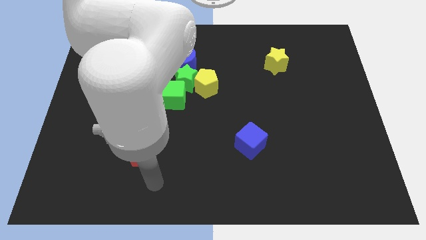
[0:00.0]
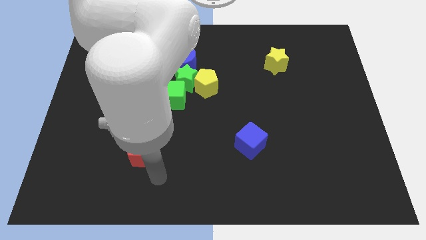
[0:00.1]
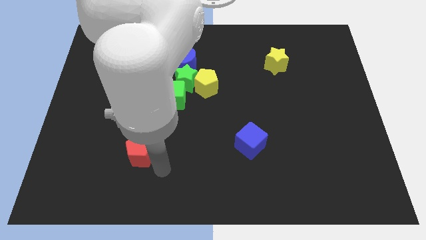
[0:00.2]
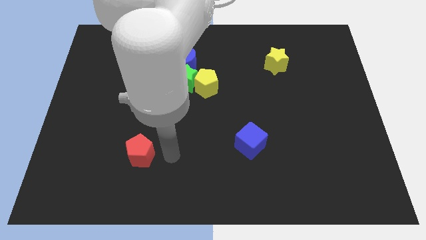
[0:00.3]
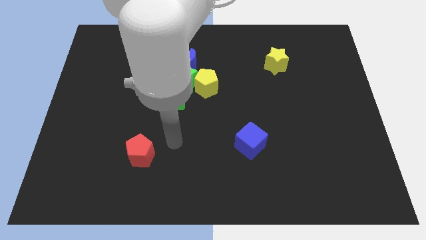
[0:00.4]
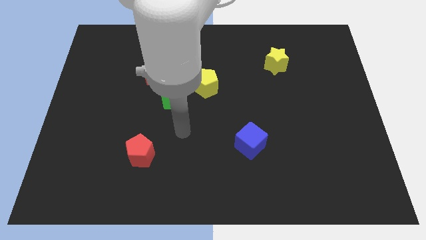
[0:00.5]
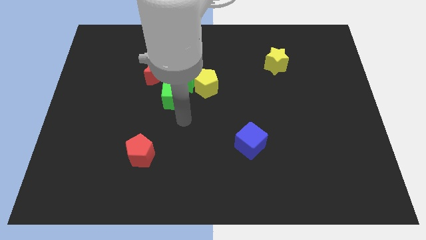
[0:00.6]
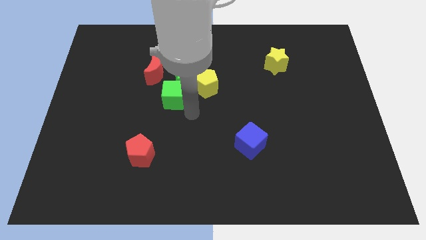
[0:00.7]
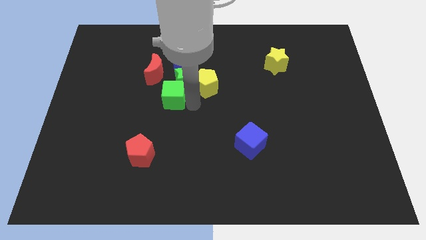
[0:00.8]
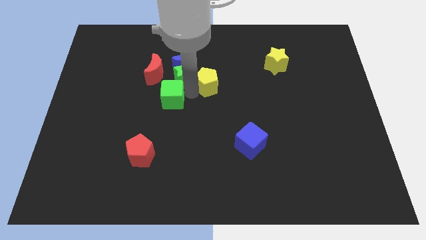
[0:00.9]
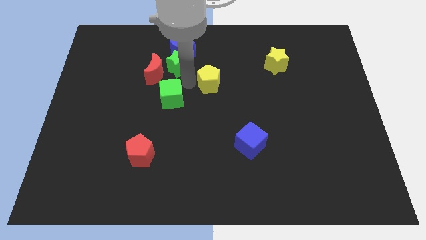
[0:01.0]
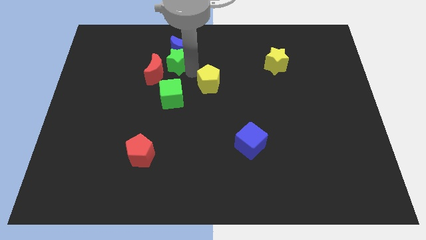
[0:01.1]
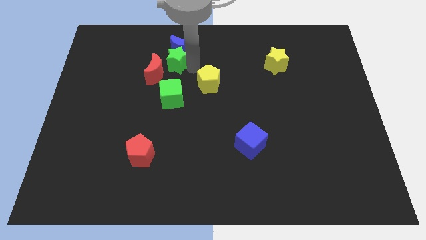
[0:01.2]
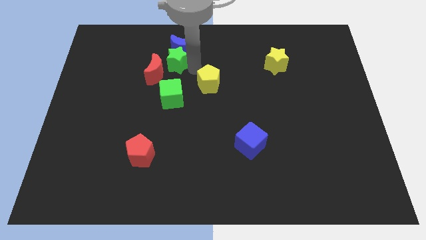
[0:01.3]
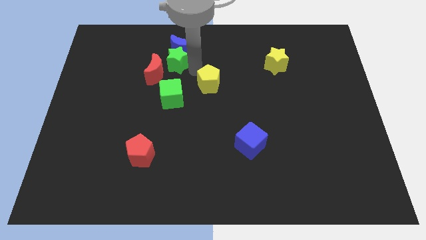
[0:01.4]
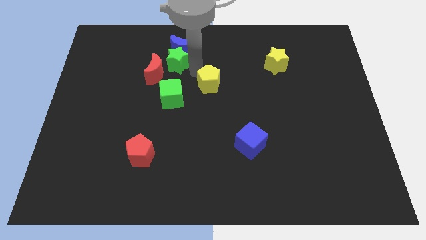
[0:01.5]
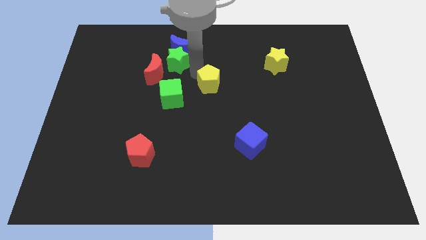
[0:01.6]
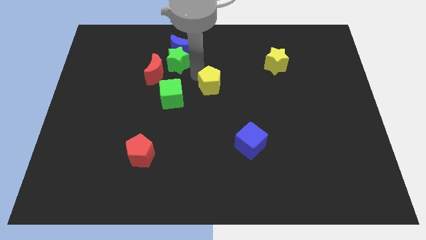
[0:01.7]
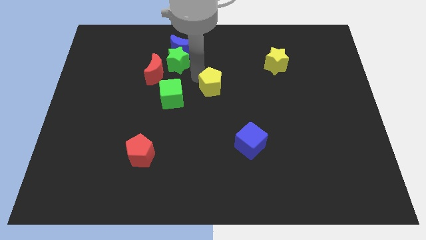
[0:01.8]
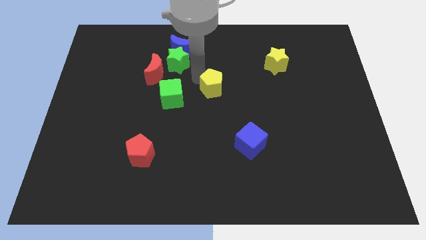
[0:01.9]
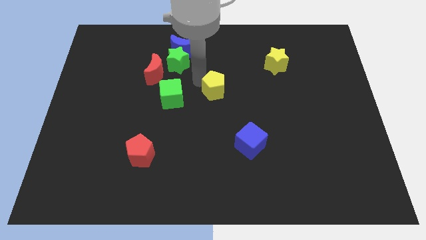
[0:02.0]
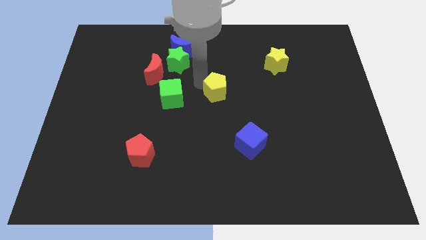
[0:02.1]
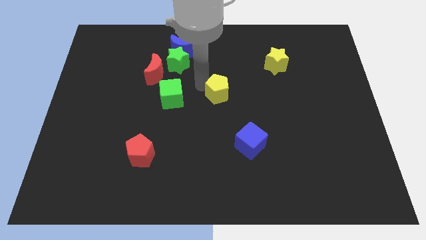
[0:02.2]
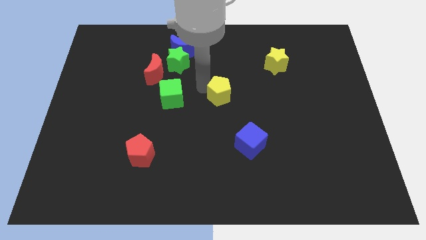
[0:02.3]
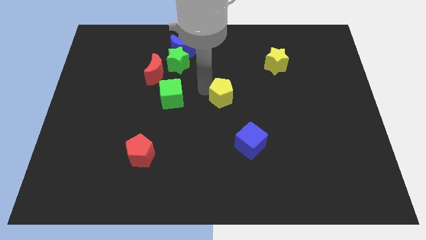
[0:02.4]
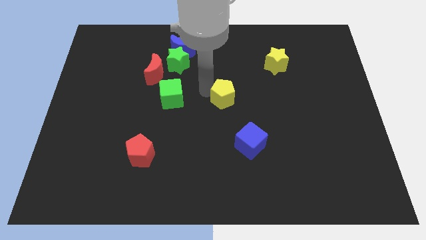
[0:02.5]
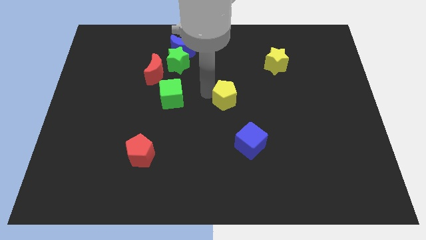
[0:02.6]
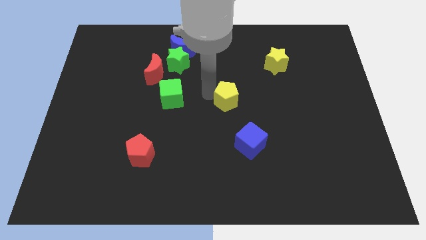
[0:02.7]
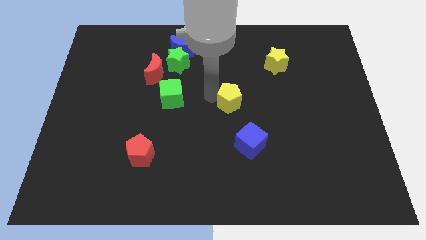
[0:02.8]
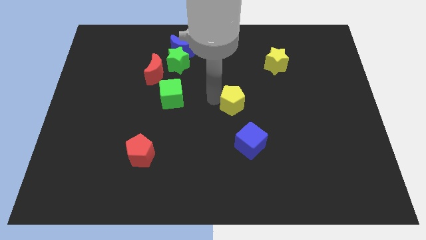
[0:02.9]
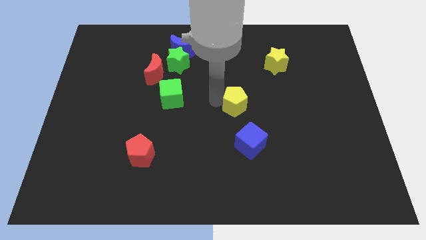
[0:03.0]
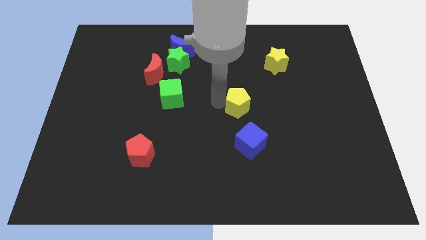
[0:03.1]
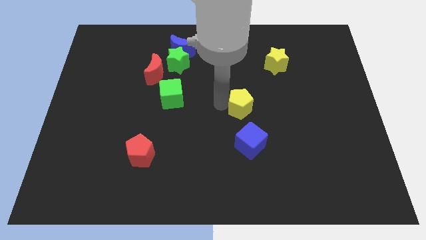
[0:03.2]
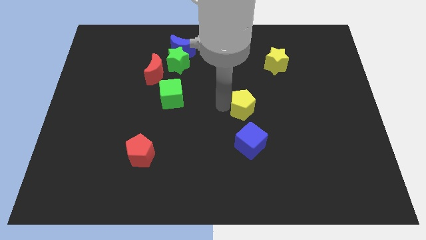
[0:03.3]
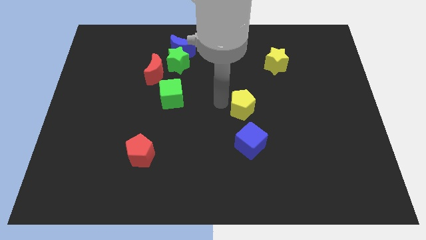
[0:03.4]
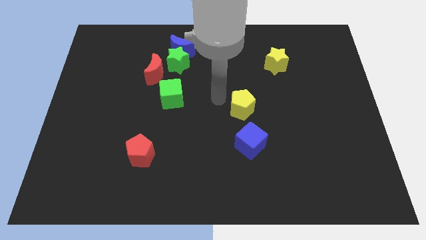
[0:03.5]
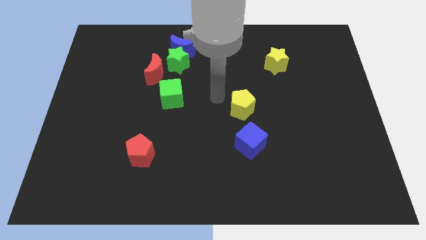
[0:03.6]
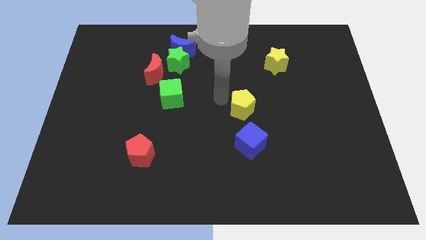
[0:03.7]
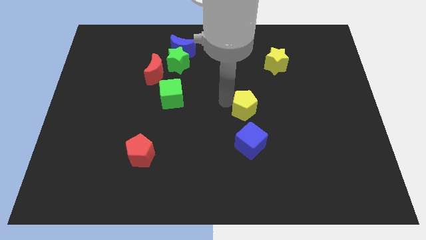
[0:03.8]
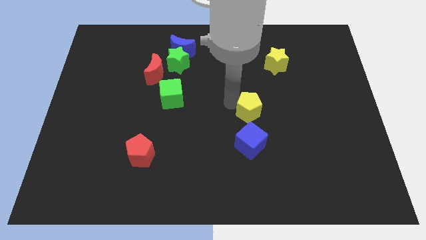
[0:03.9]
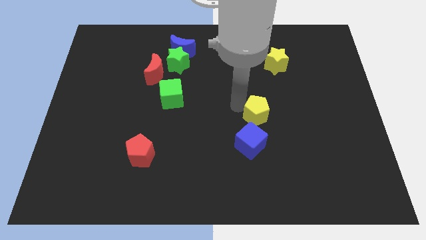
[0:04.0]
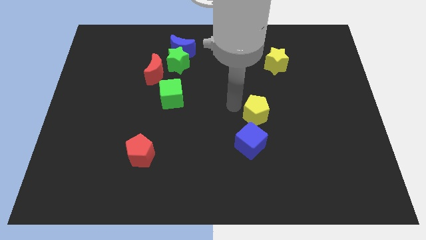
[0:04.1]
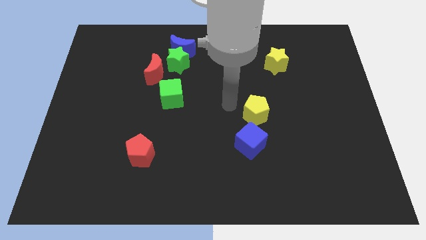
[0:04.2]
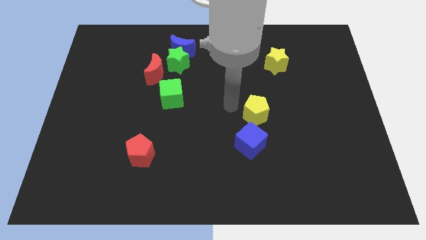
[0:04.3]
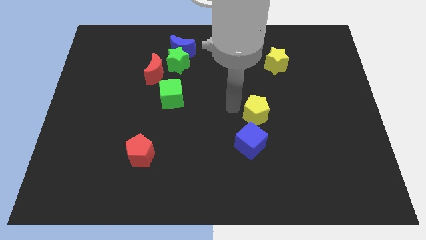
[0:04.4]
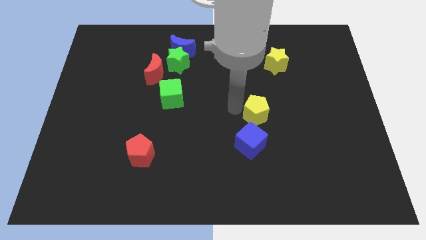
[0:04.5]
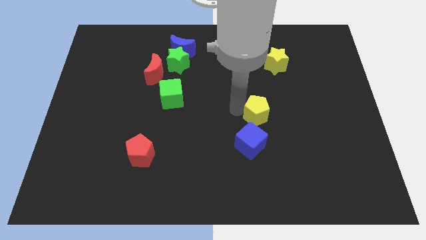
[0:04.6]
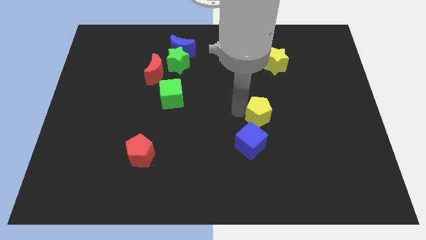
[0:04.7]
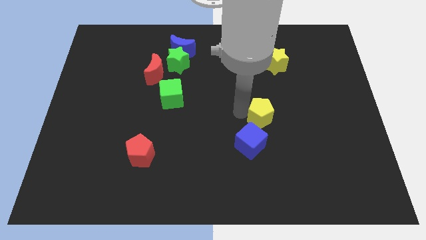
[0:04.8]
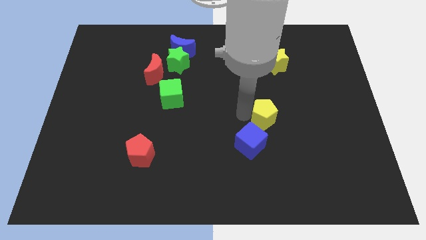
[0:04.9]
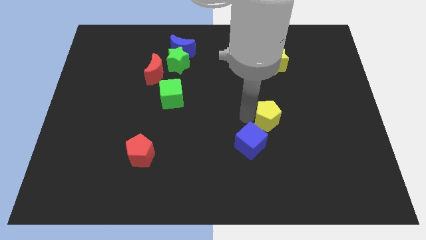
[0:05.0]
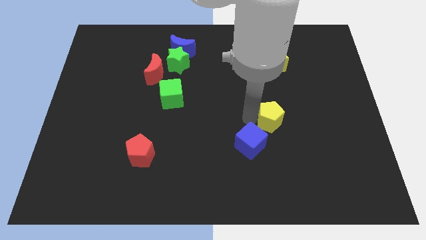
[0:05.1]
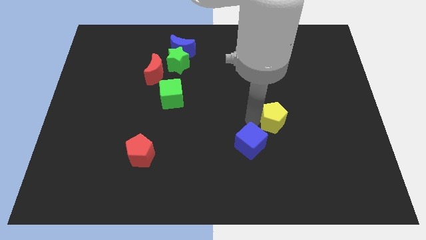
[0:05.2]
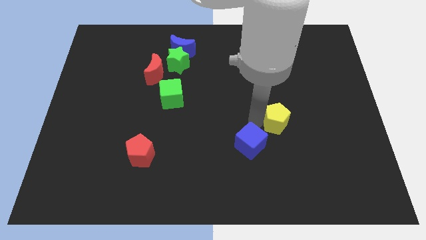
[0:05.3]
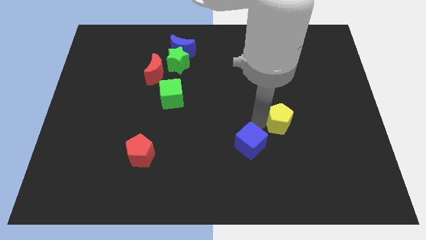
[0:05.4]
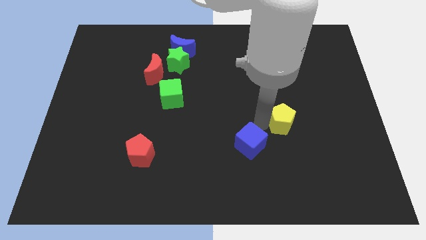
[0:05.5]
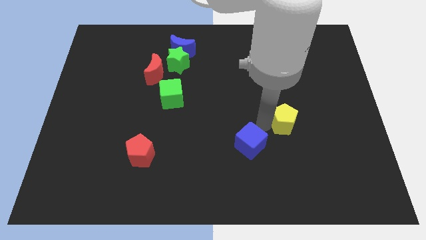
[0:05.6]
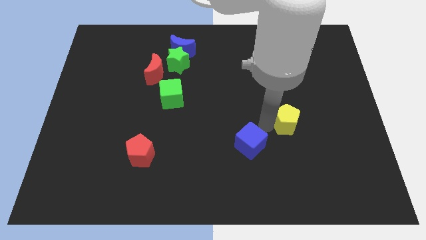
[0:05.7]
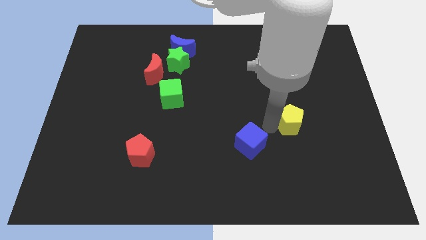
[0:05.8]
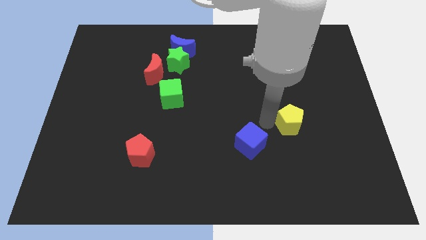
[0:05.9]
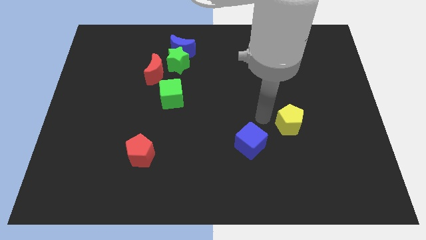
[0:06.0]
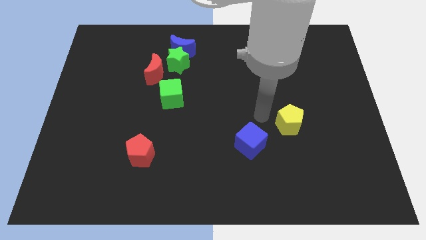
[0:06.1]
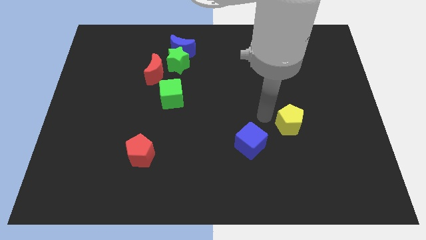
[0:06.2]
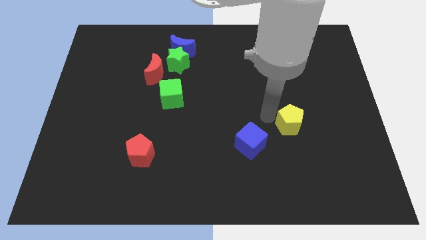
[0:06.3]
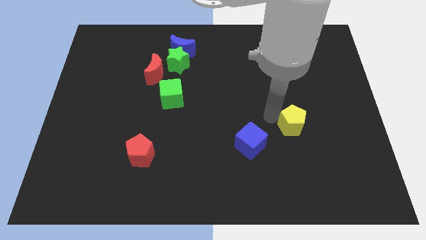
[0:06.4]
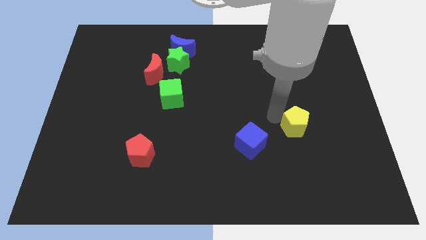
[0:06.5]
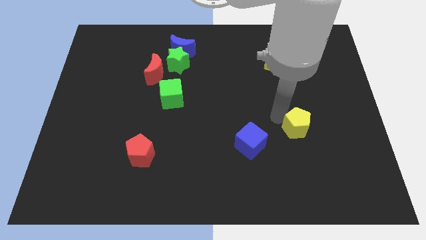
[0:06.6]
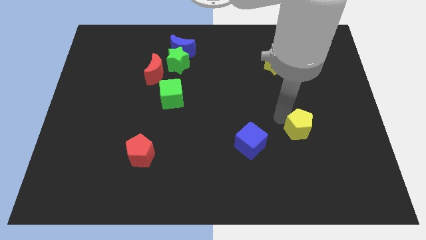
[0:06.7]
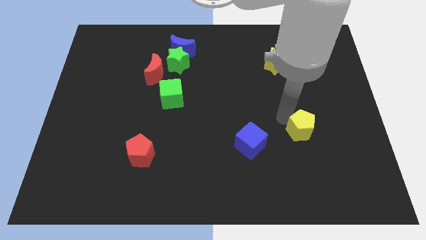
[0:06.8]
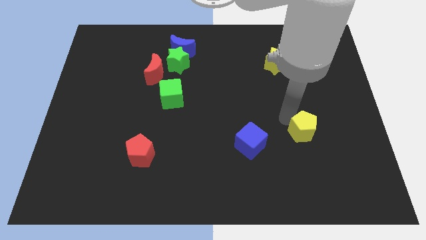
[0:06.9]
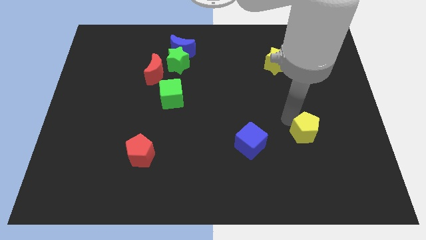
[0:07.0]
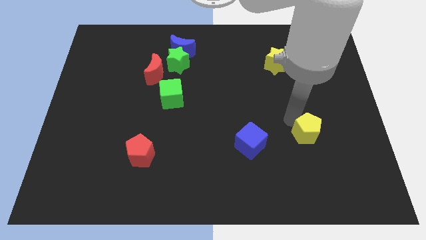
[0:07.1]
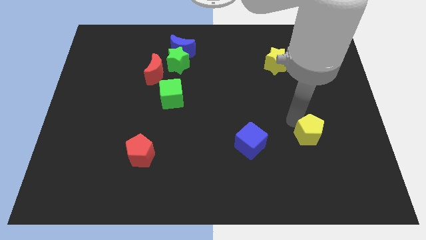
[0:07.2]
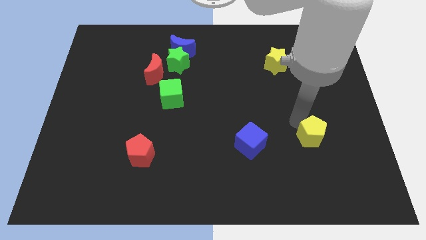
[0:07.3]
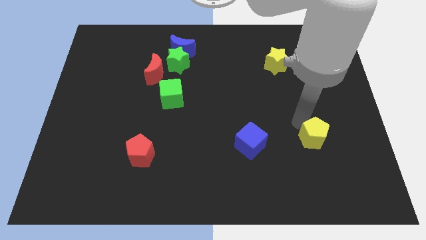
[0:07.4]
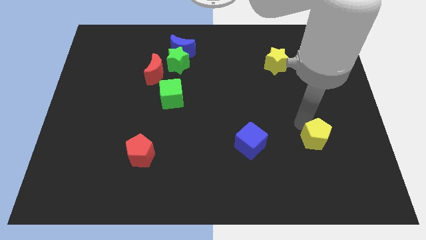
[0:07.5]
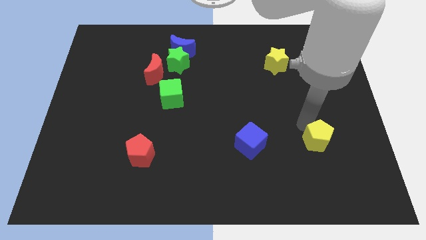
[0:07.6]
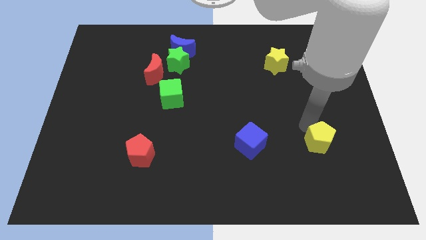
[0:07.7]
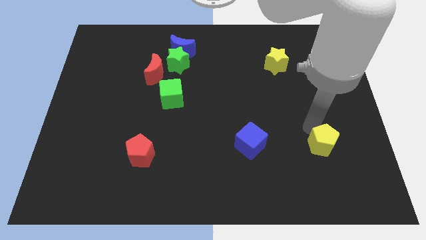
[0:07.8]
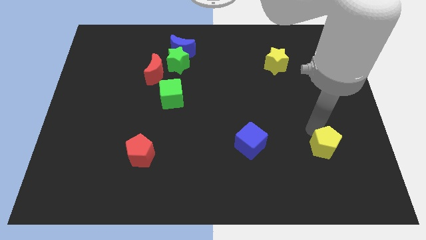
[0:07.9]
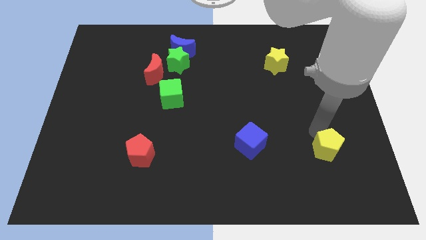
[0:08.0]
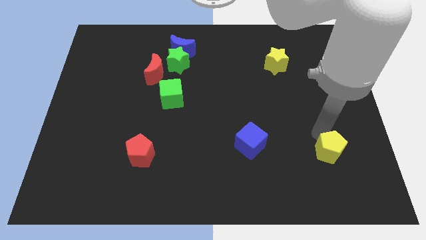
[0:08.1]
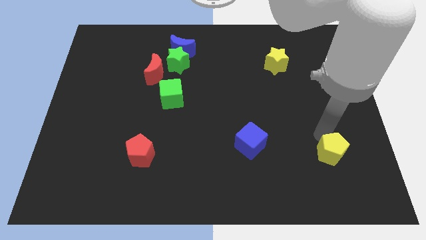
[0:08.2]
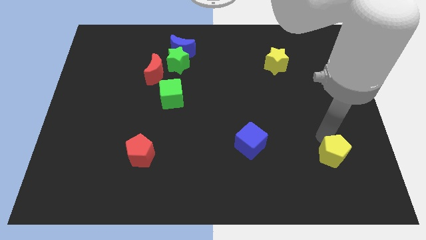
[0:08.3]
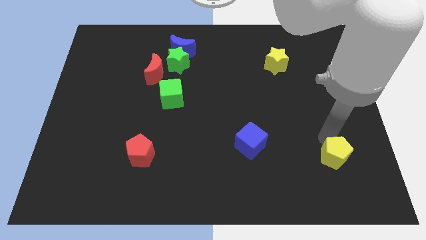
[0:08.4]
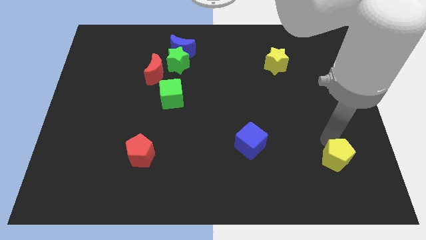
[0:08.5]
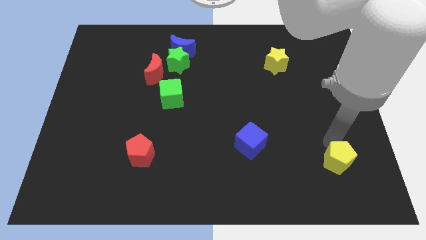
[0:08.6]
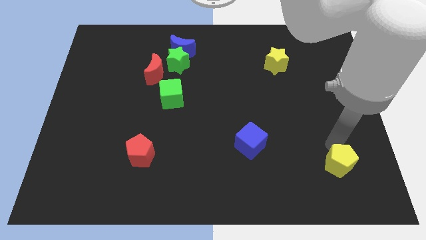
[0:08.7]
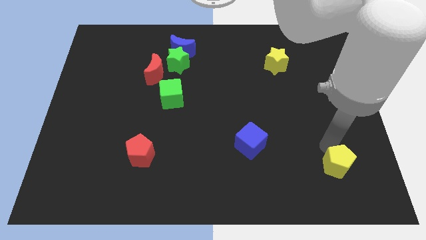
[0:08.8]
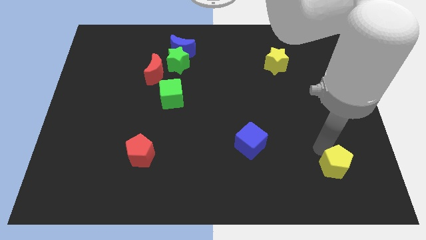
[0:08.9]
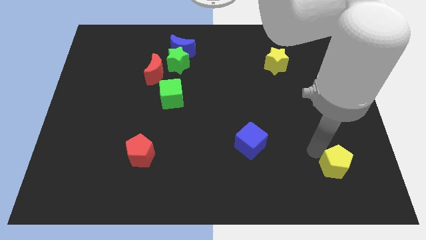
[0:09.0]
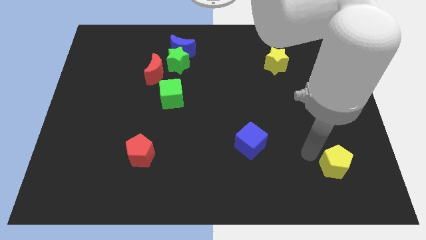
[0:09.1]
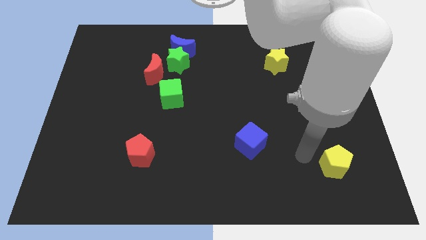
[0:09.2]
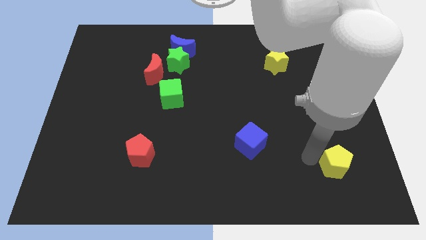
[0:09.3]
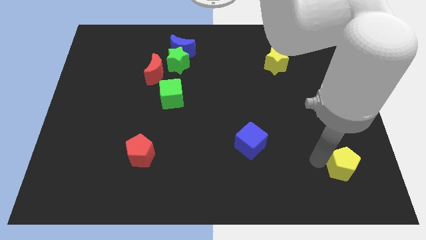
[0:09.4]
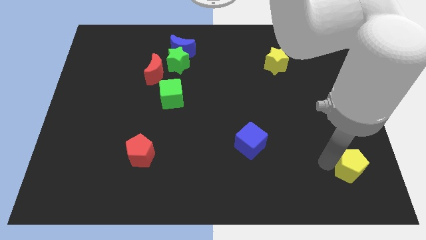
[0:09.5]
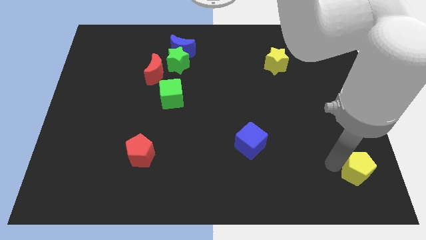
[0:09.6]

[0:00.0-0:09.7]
push the yellow pentagon to the lower right corner
